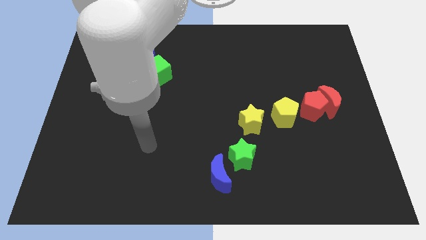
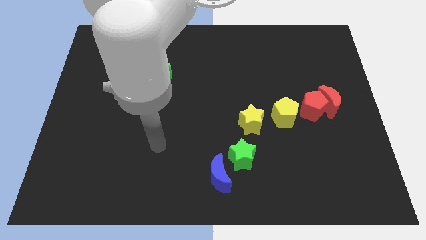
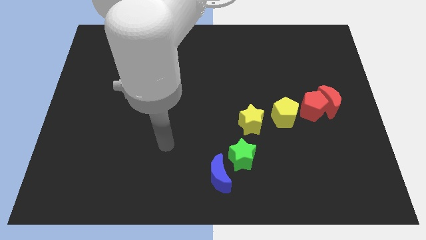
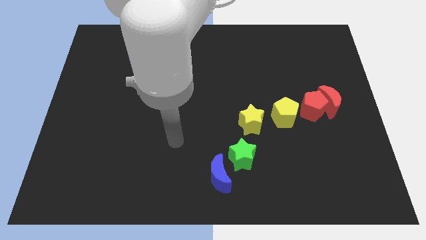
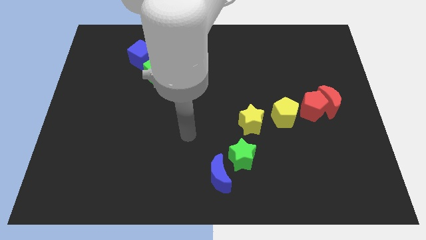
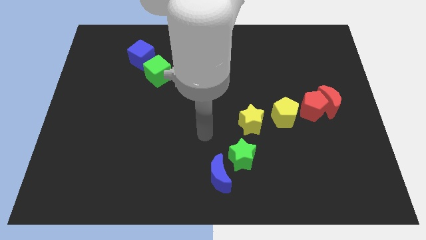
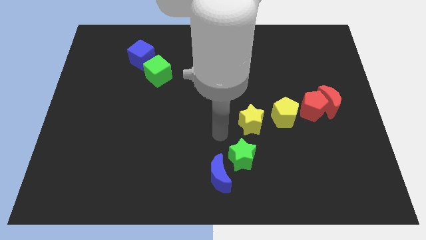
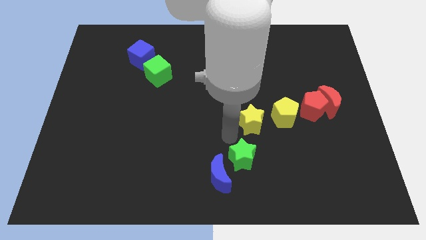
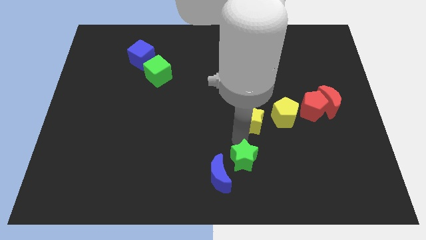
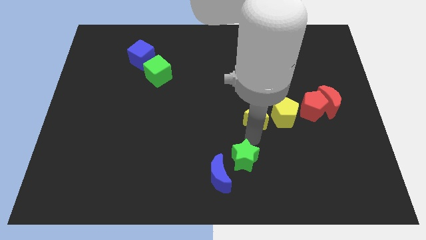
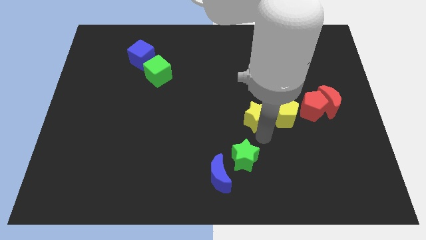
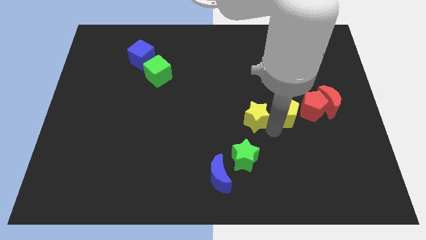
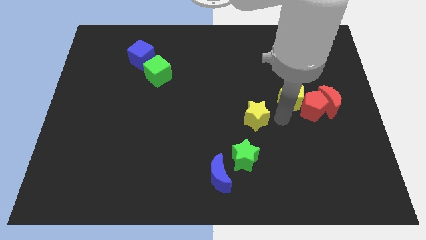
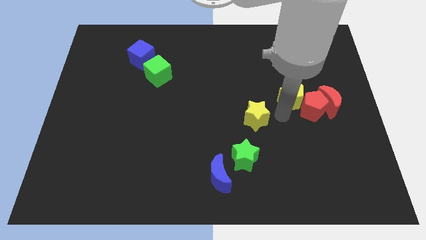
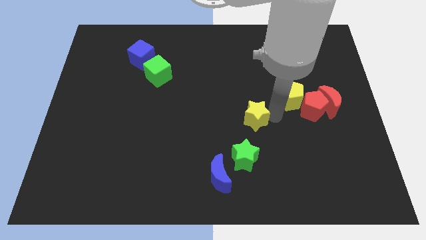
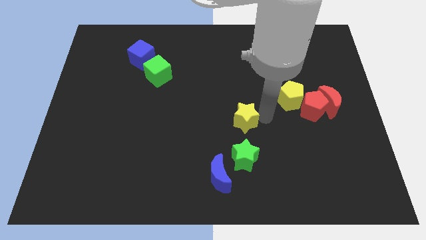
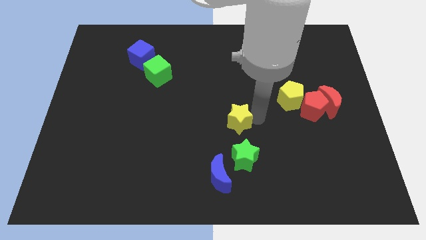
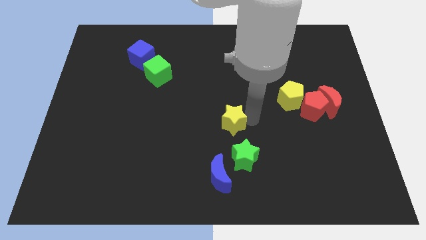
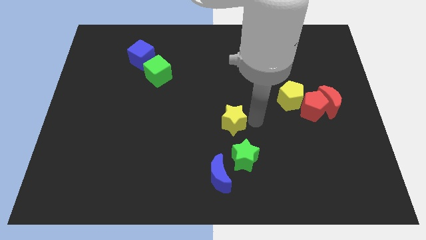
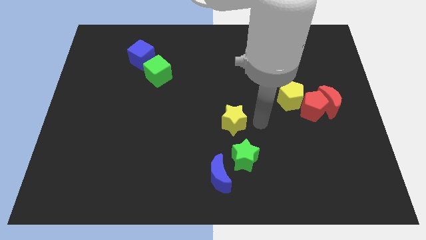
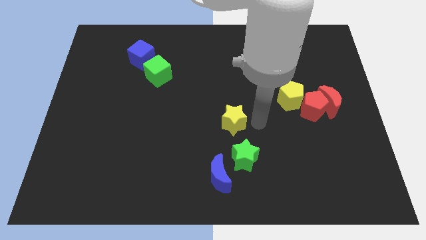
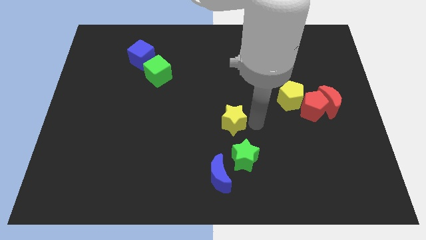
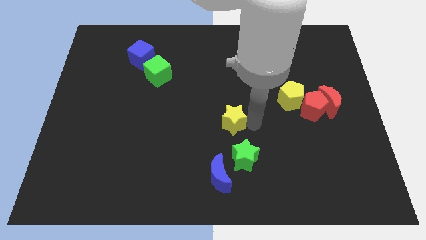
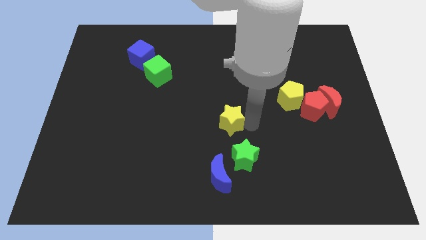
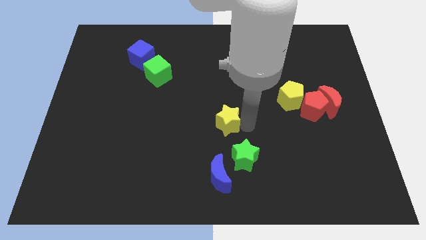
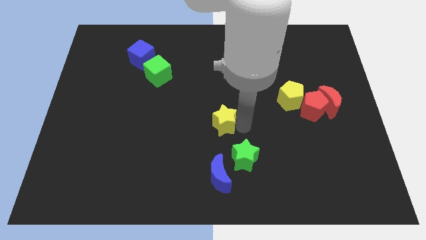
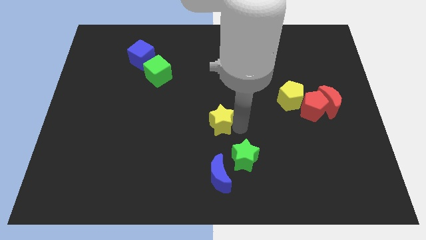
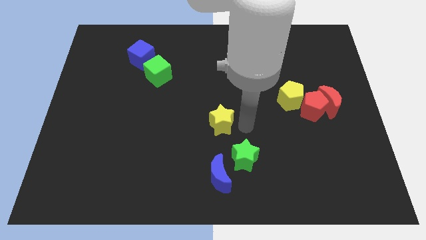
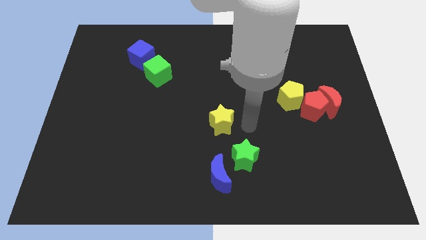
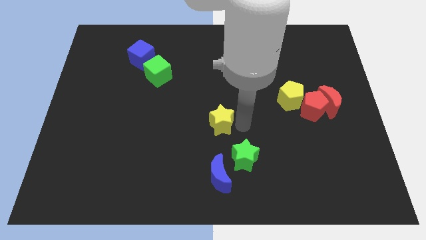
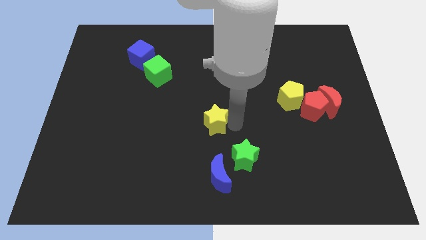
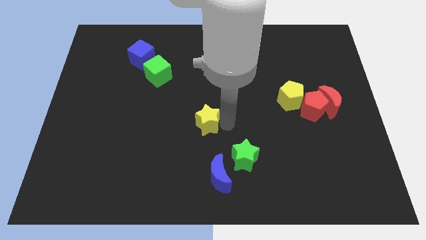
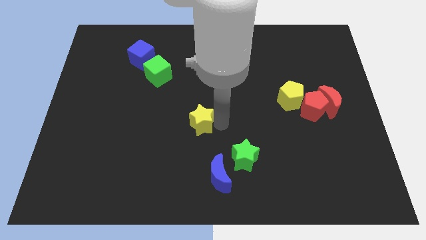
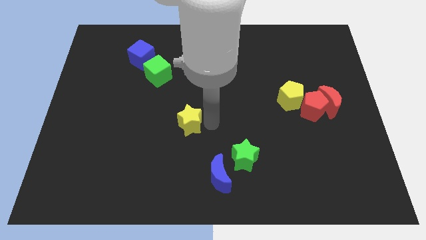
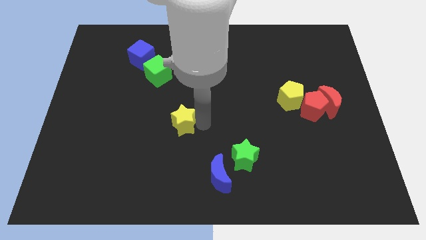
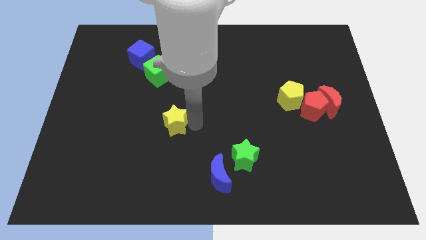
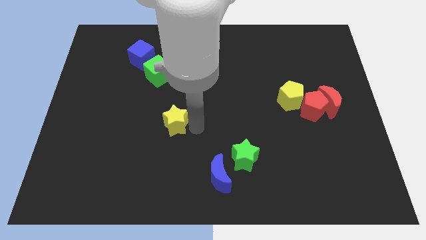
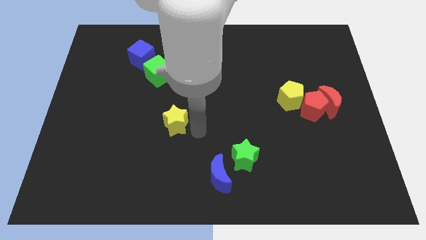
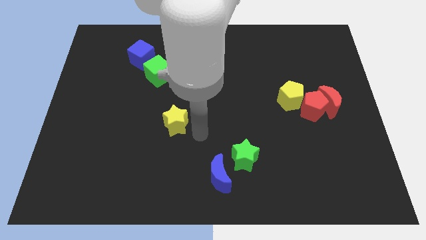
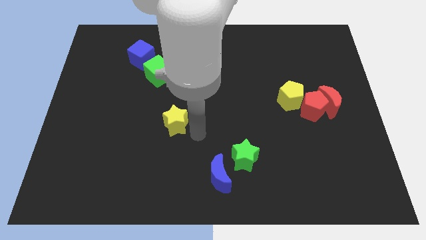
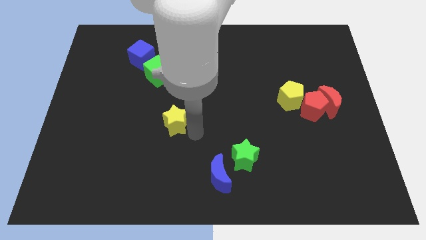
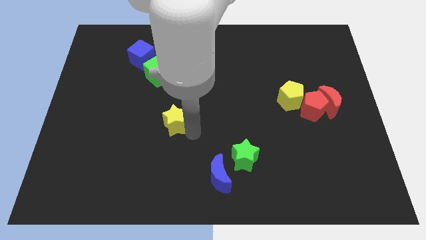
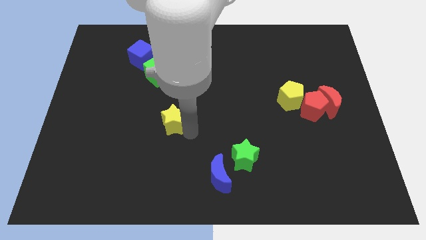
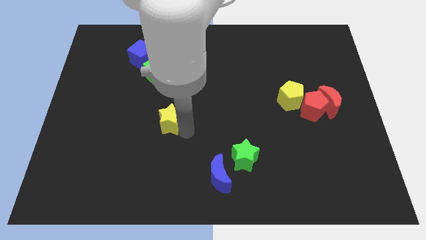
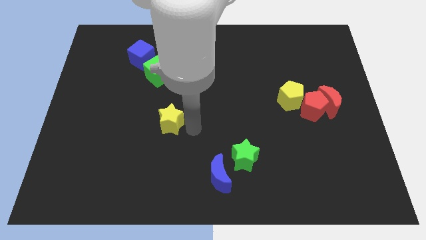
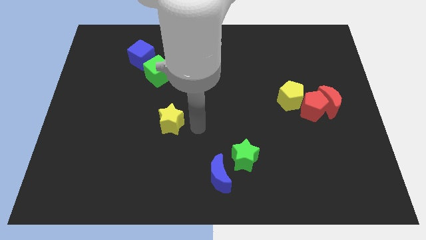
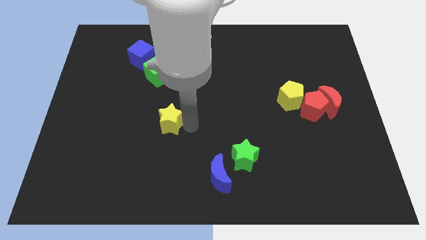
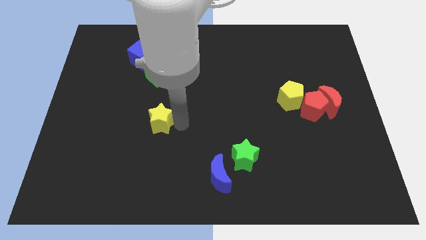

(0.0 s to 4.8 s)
push the yellow star to the left

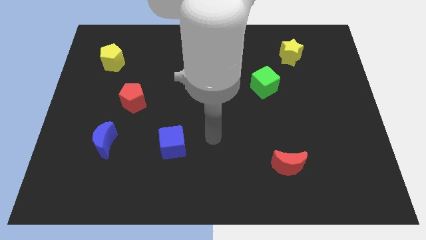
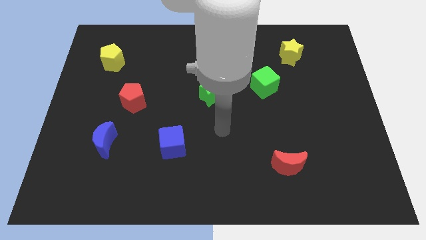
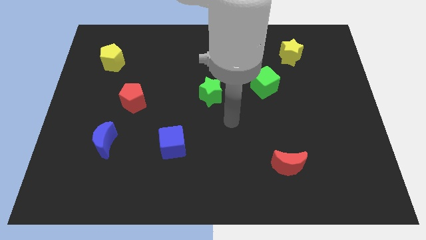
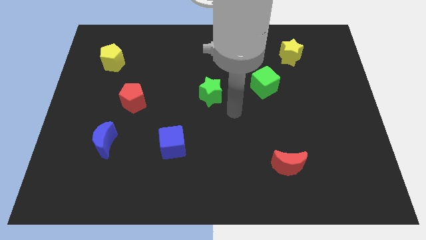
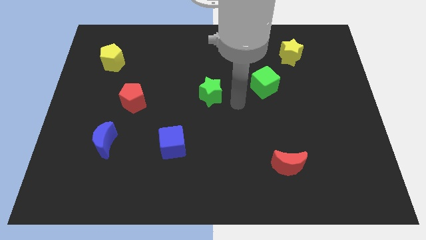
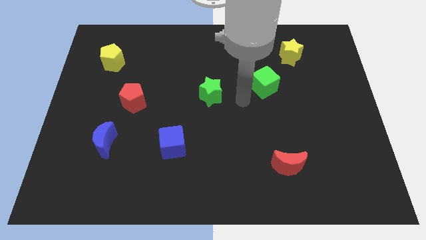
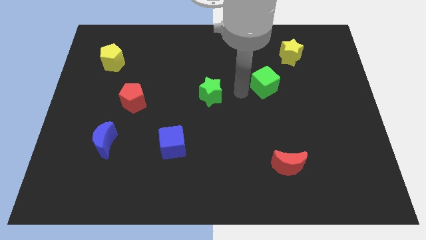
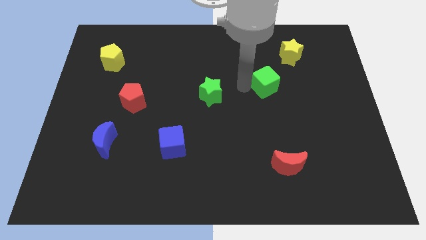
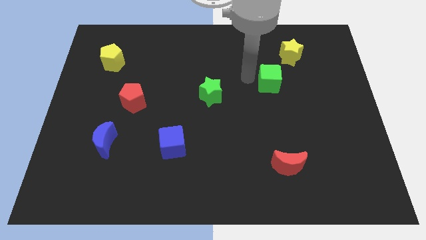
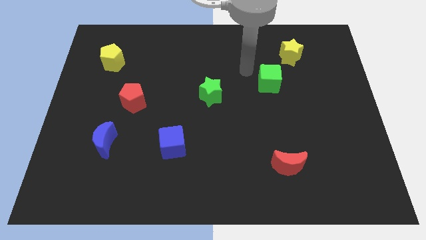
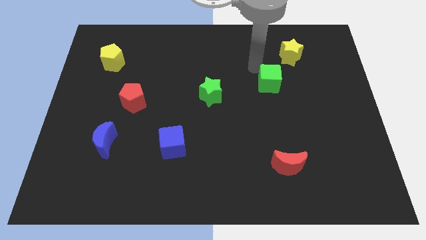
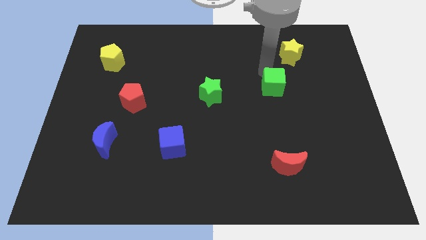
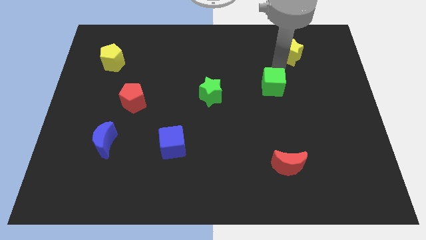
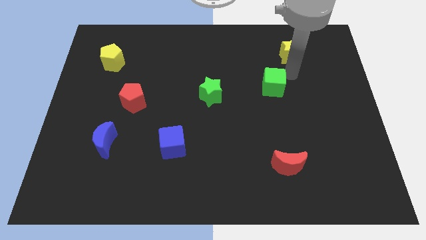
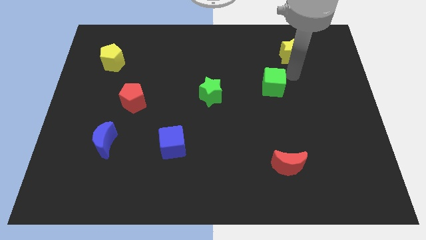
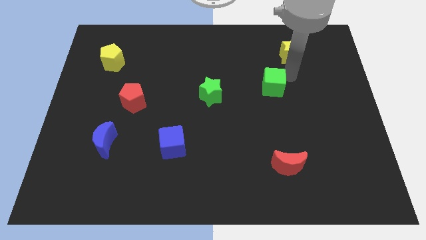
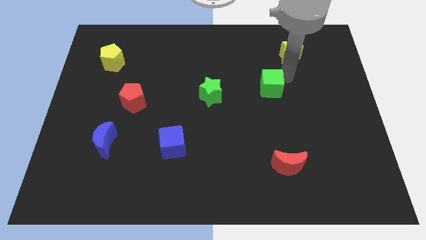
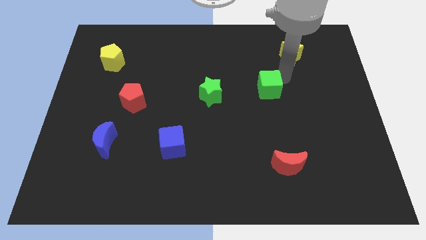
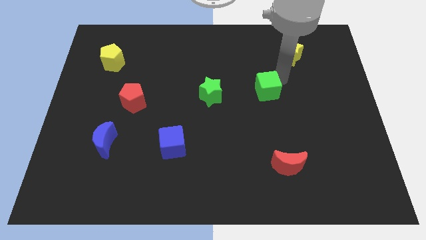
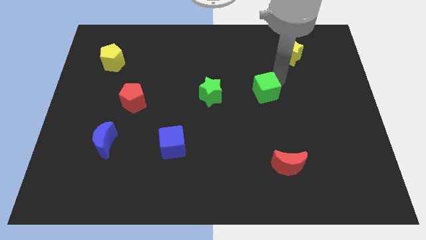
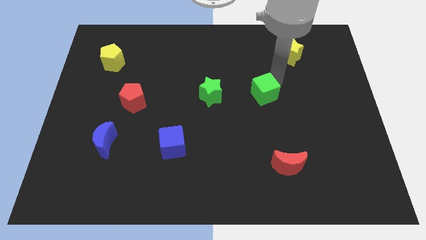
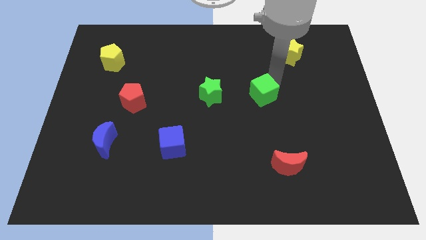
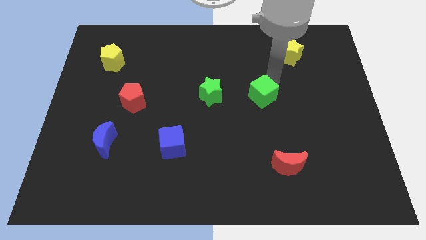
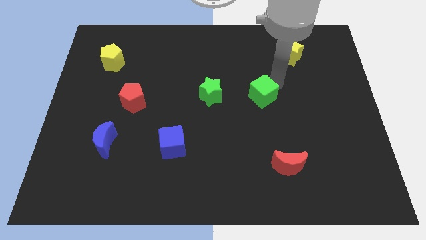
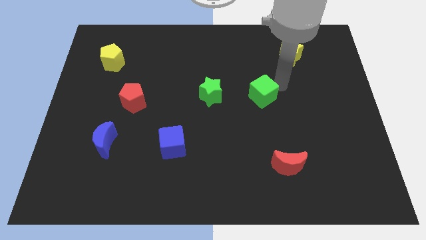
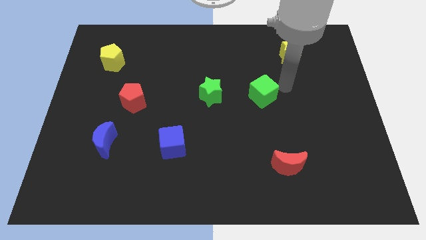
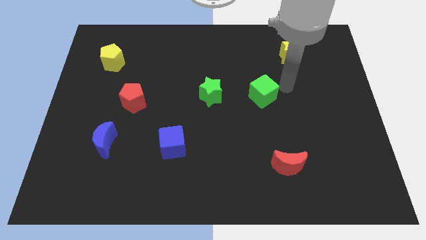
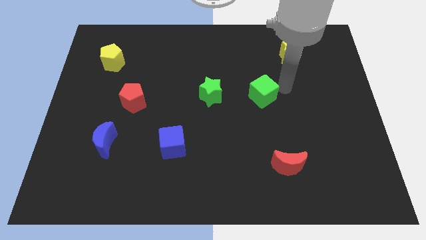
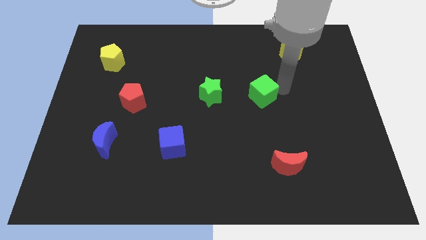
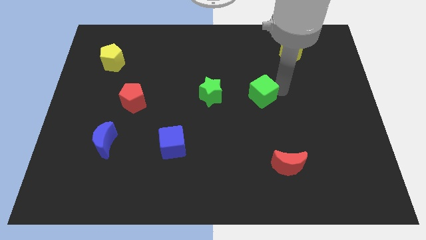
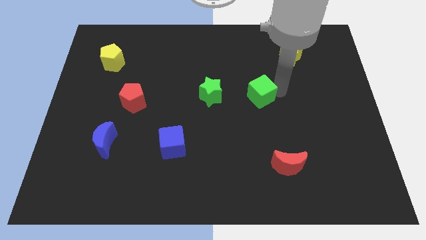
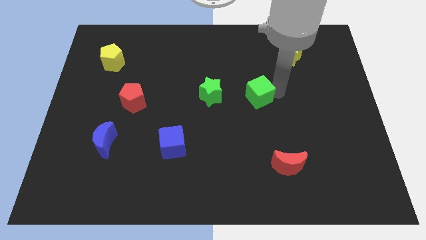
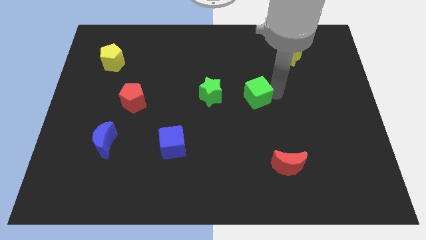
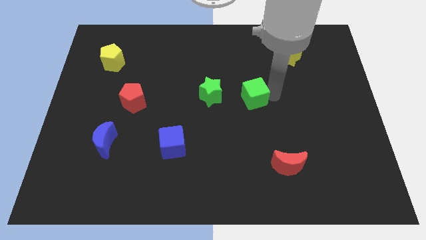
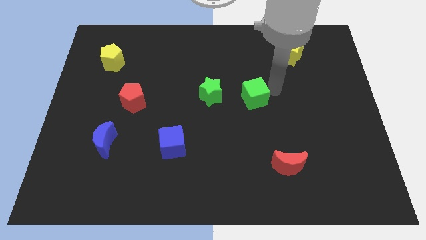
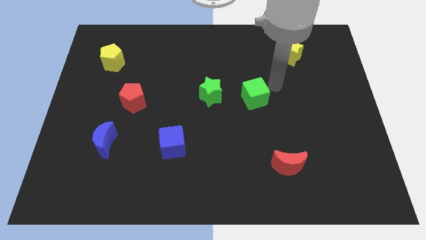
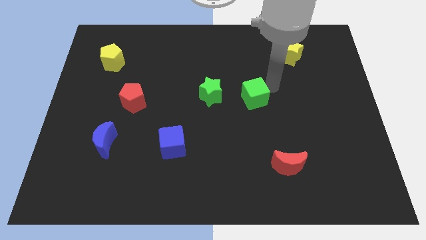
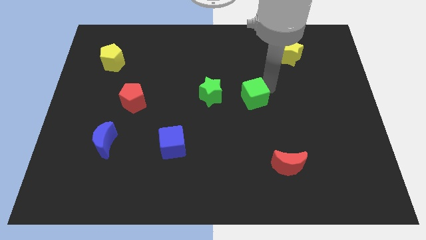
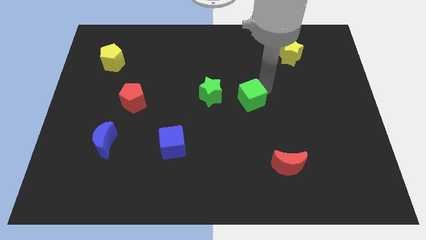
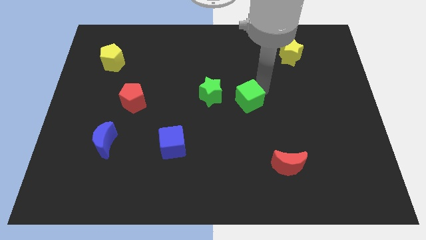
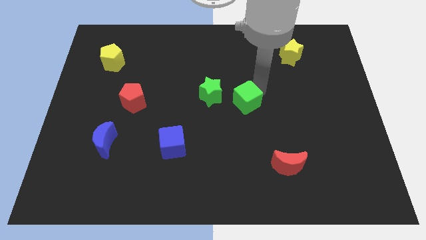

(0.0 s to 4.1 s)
push the green cube down and left slightly
